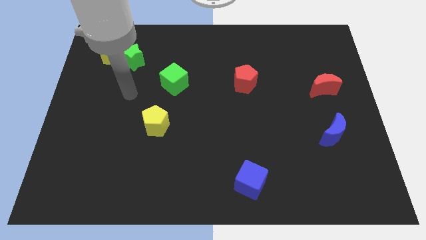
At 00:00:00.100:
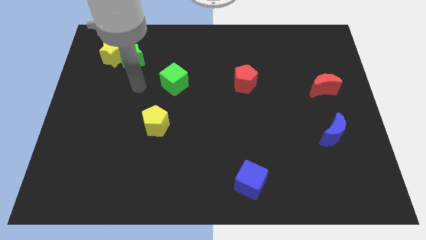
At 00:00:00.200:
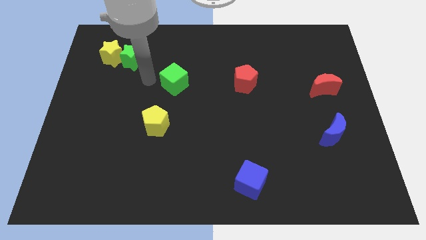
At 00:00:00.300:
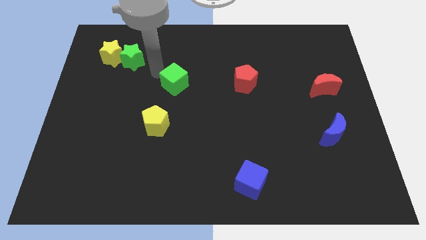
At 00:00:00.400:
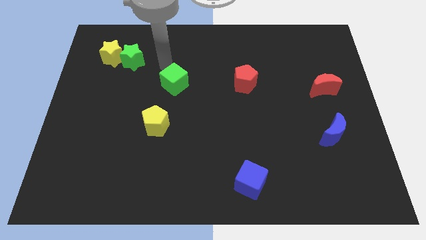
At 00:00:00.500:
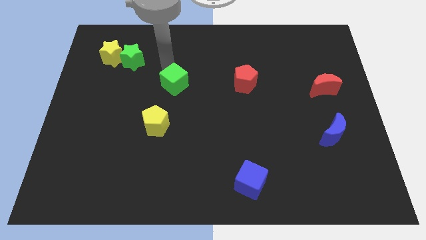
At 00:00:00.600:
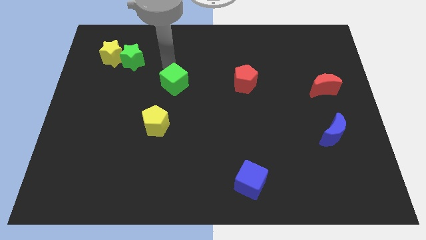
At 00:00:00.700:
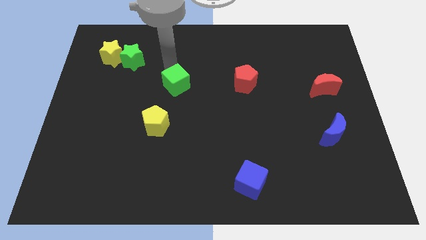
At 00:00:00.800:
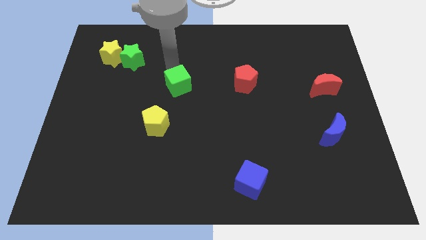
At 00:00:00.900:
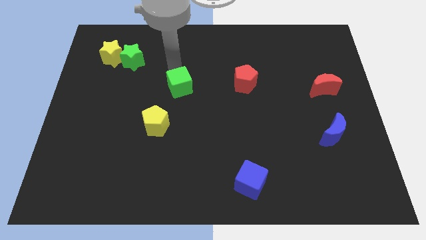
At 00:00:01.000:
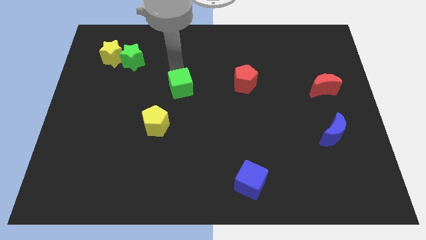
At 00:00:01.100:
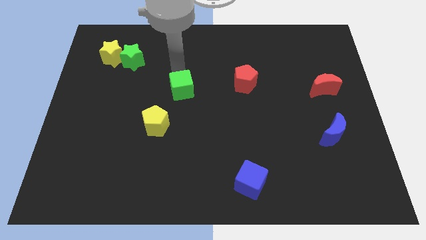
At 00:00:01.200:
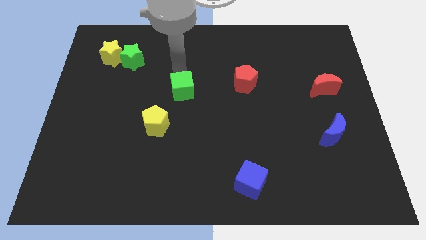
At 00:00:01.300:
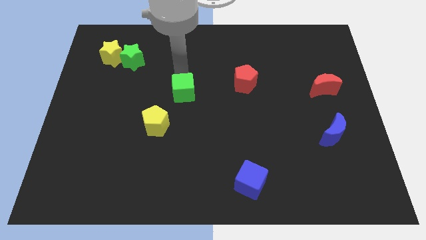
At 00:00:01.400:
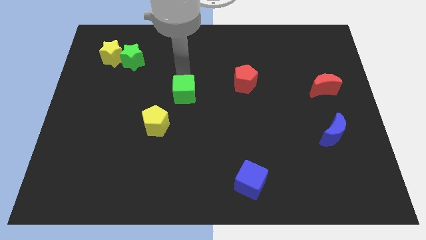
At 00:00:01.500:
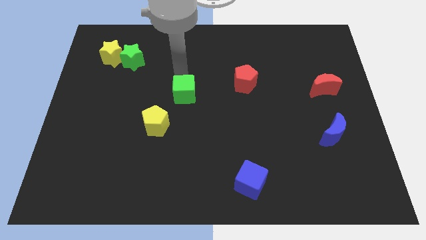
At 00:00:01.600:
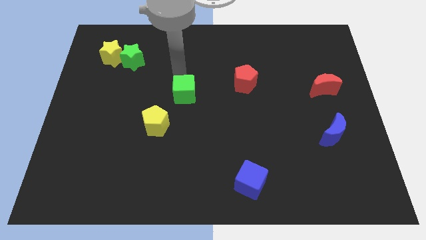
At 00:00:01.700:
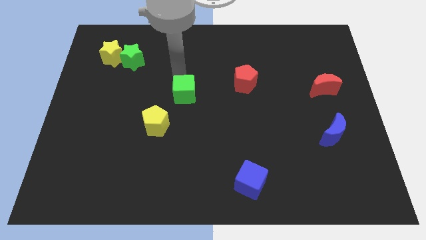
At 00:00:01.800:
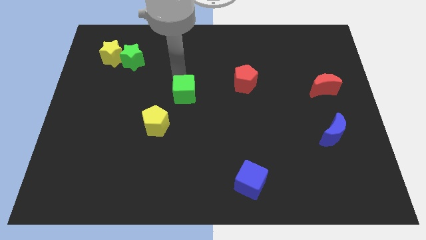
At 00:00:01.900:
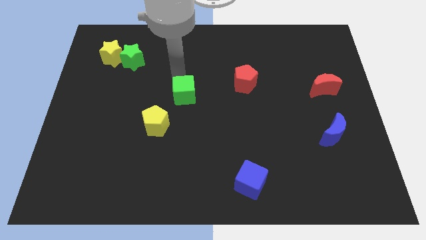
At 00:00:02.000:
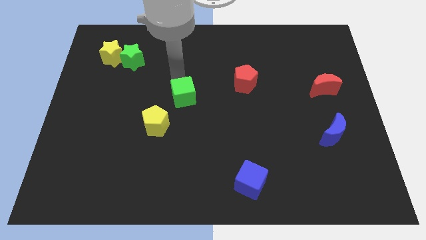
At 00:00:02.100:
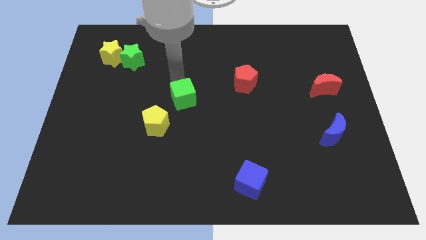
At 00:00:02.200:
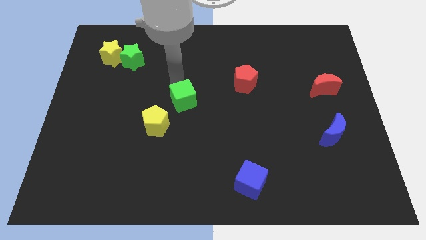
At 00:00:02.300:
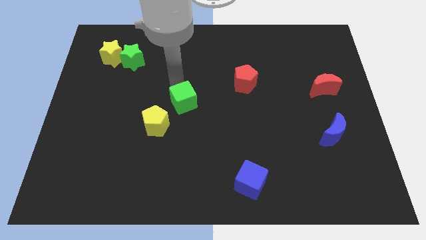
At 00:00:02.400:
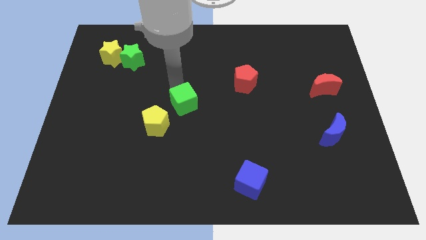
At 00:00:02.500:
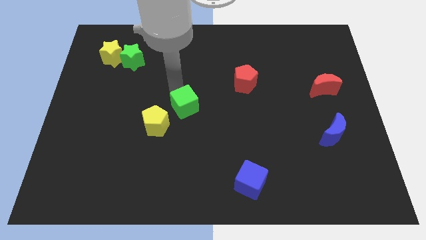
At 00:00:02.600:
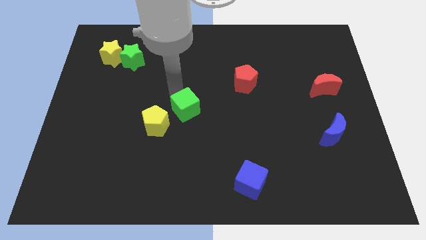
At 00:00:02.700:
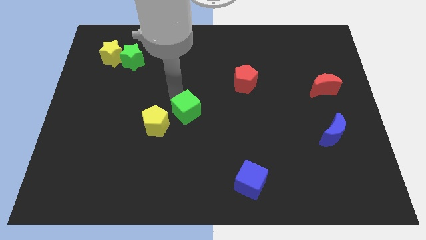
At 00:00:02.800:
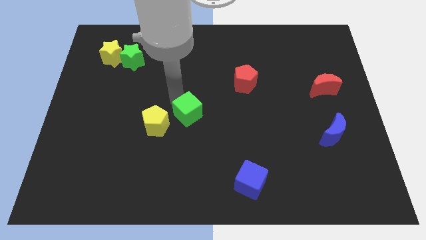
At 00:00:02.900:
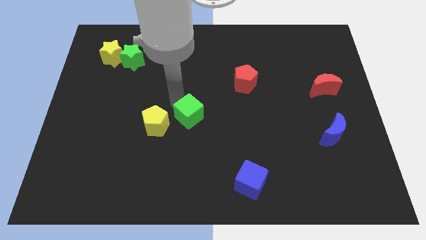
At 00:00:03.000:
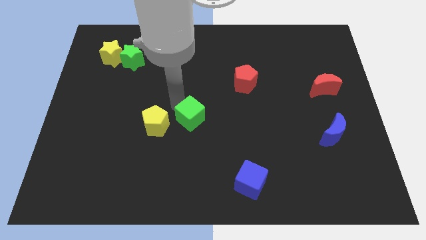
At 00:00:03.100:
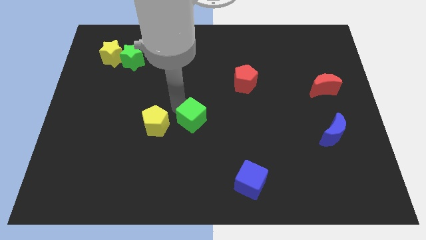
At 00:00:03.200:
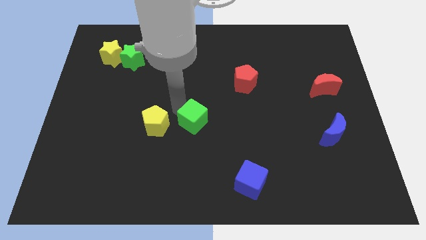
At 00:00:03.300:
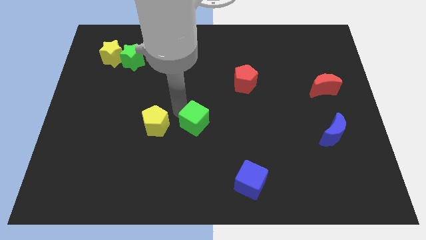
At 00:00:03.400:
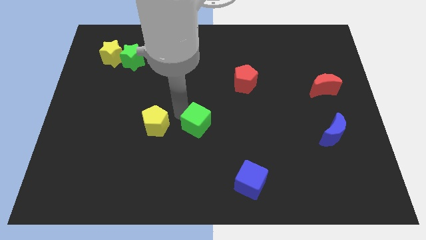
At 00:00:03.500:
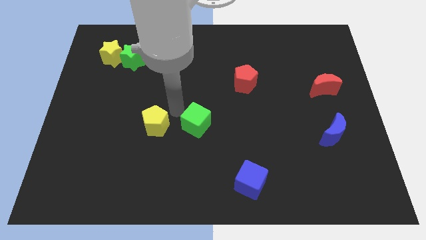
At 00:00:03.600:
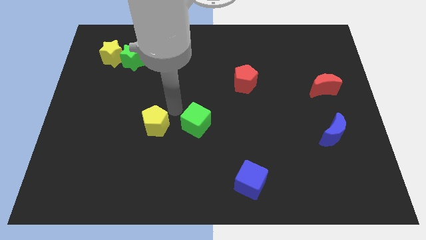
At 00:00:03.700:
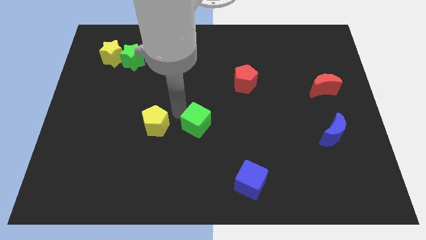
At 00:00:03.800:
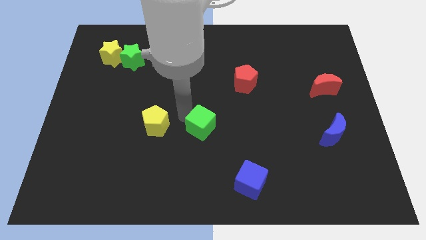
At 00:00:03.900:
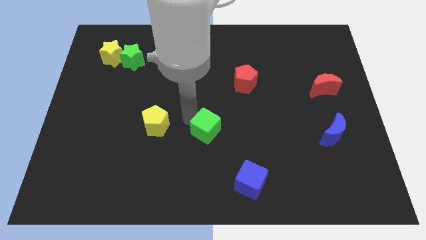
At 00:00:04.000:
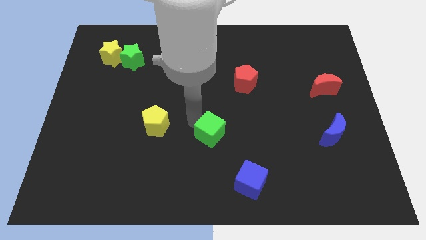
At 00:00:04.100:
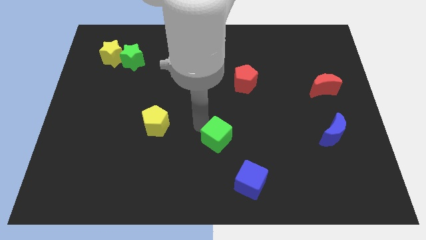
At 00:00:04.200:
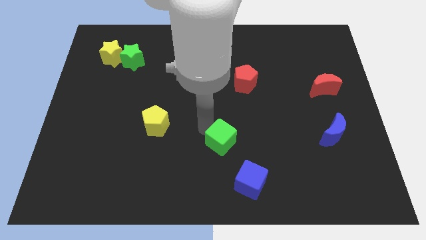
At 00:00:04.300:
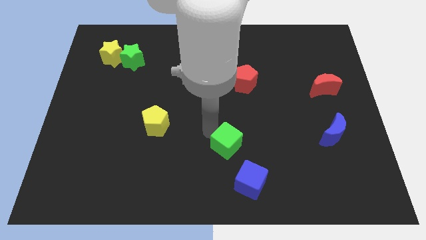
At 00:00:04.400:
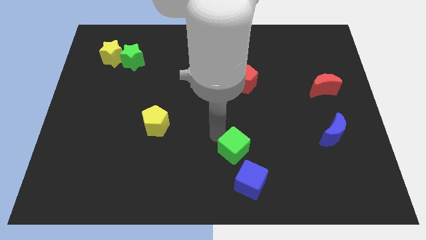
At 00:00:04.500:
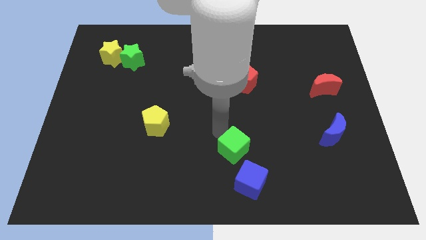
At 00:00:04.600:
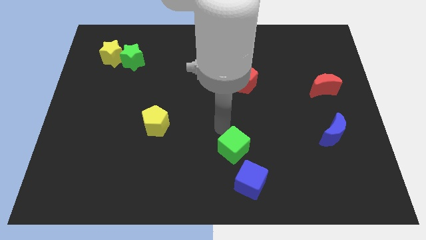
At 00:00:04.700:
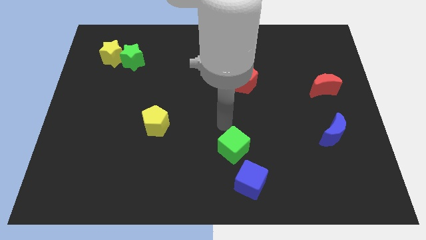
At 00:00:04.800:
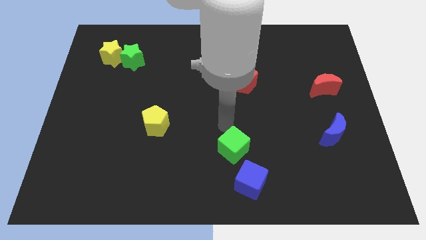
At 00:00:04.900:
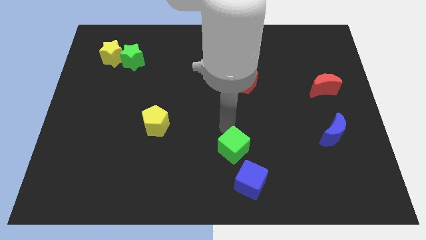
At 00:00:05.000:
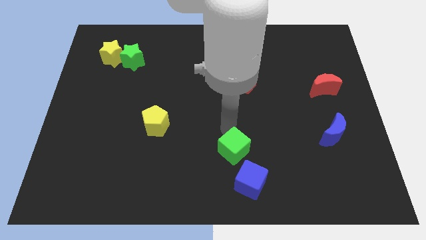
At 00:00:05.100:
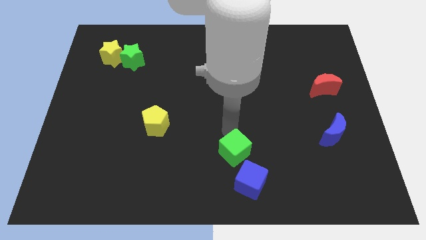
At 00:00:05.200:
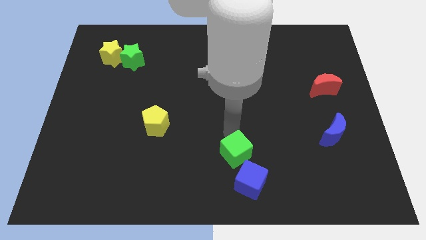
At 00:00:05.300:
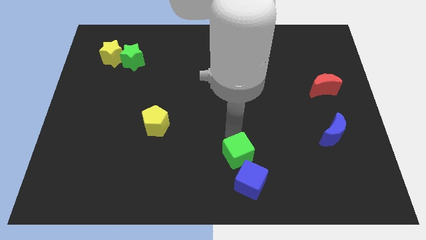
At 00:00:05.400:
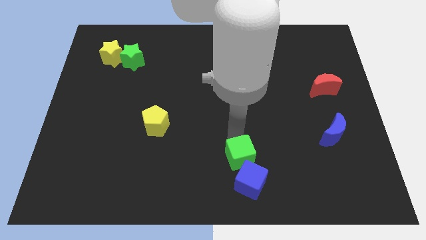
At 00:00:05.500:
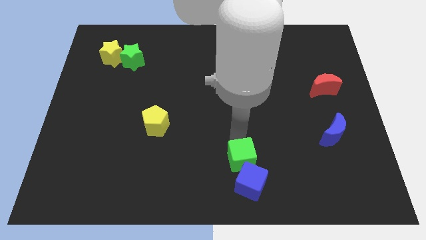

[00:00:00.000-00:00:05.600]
put the green cube to the blue cube

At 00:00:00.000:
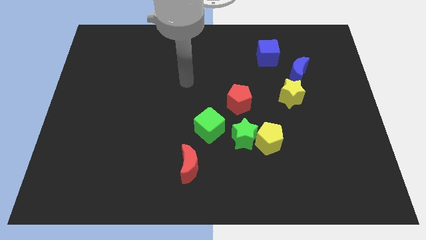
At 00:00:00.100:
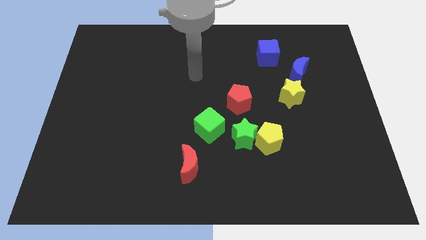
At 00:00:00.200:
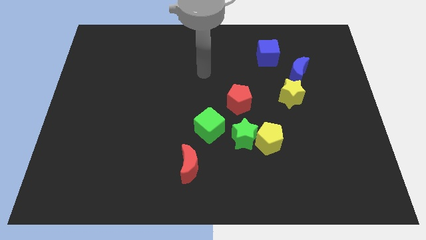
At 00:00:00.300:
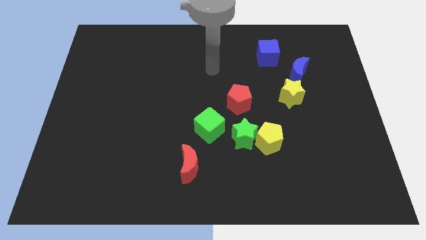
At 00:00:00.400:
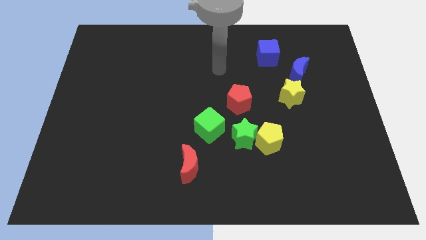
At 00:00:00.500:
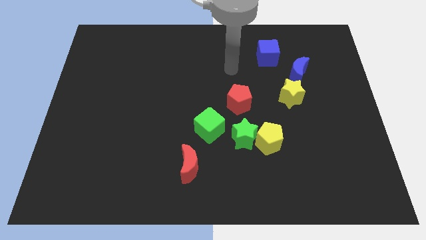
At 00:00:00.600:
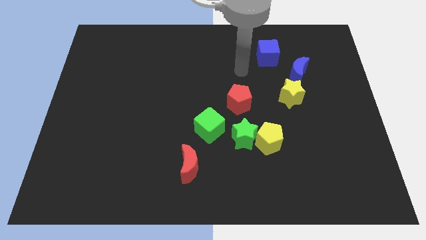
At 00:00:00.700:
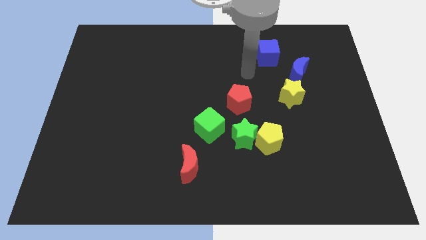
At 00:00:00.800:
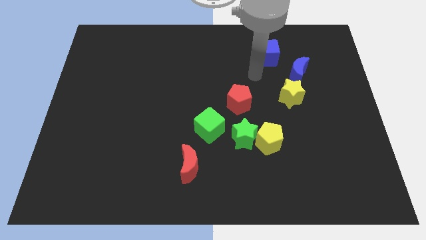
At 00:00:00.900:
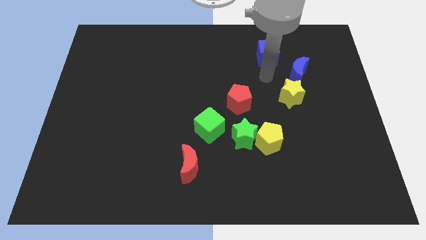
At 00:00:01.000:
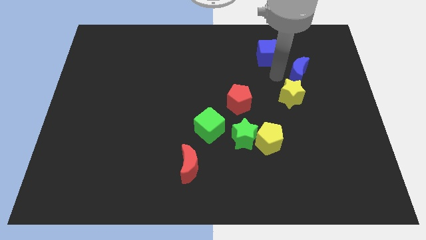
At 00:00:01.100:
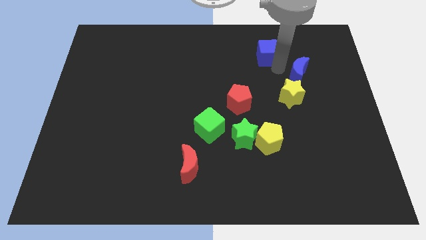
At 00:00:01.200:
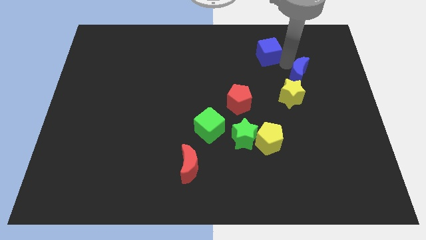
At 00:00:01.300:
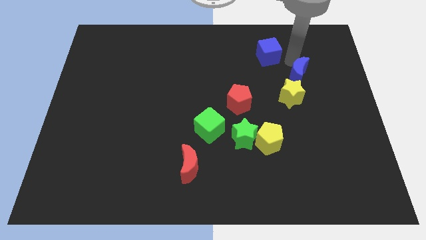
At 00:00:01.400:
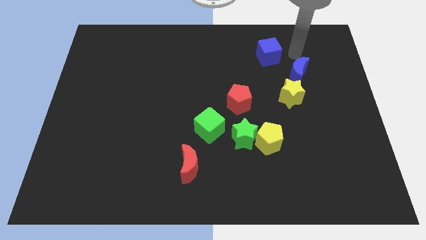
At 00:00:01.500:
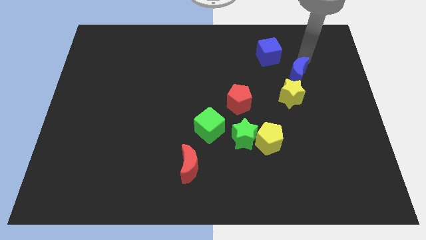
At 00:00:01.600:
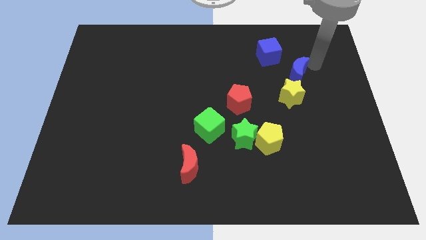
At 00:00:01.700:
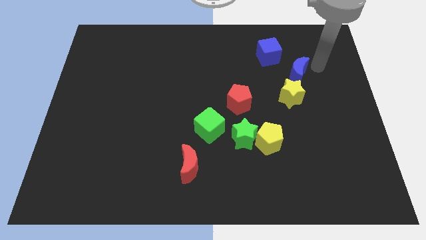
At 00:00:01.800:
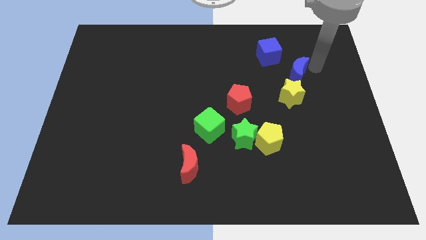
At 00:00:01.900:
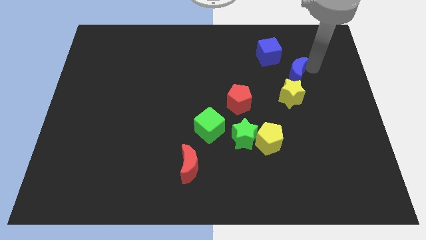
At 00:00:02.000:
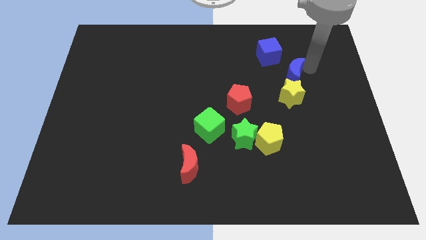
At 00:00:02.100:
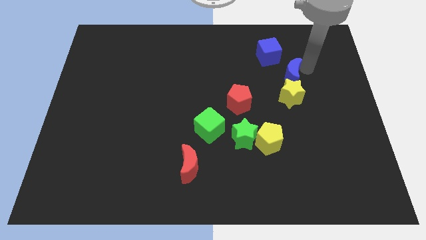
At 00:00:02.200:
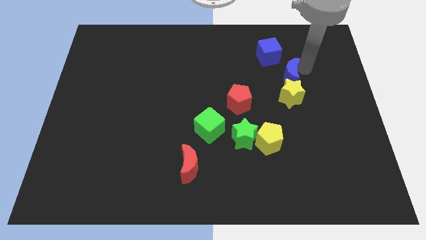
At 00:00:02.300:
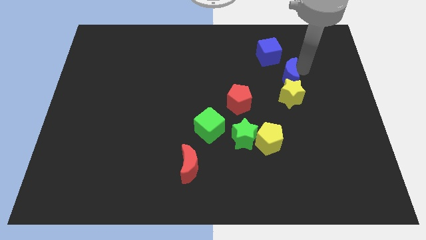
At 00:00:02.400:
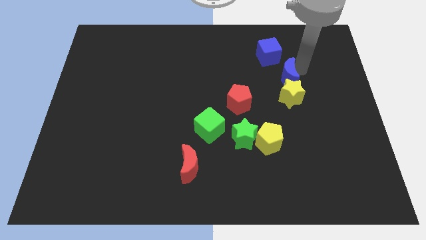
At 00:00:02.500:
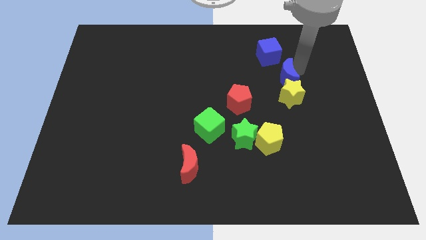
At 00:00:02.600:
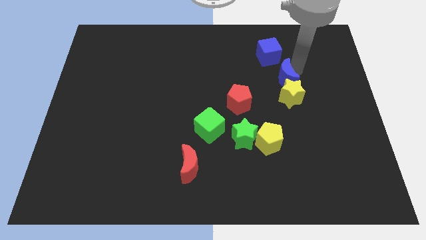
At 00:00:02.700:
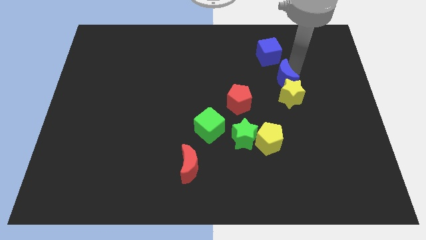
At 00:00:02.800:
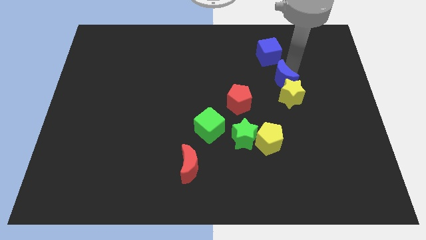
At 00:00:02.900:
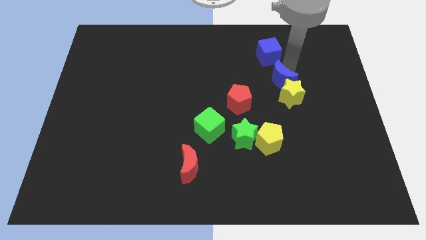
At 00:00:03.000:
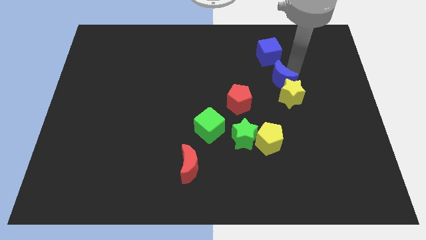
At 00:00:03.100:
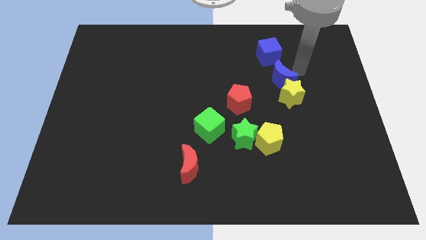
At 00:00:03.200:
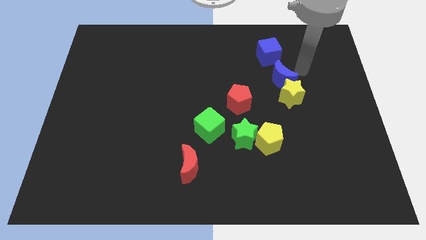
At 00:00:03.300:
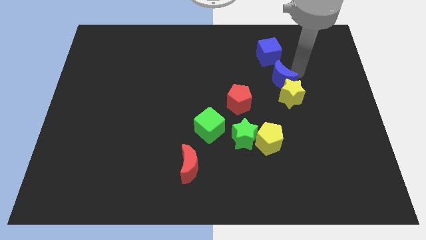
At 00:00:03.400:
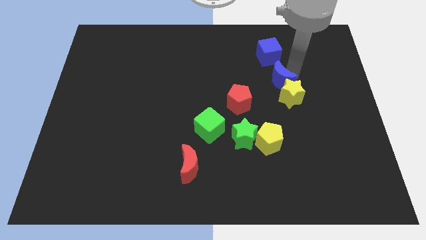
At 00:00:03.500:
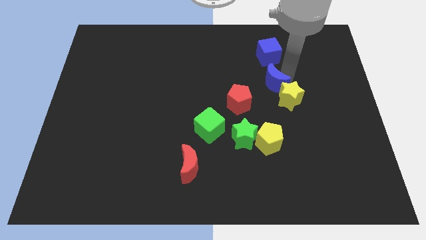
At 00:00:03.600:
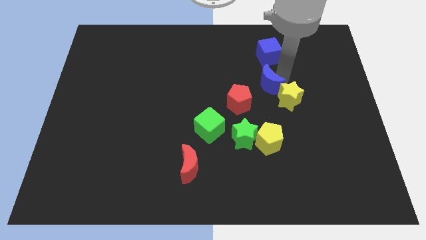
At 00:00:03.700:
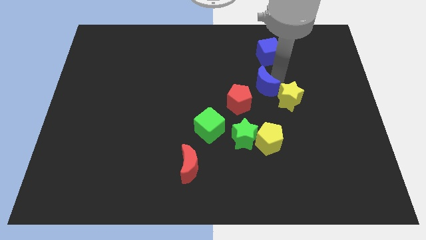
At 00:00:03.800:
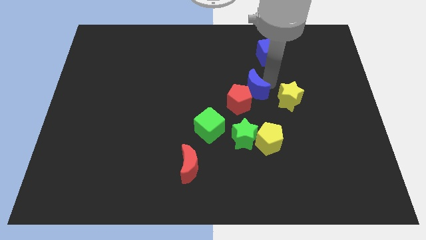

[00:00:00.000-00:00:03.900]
push the blue moon next to the red pentagon
